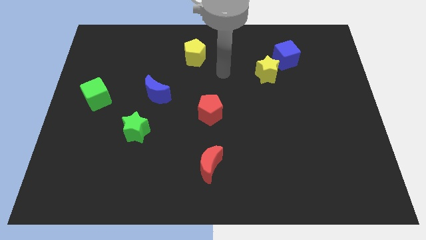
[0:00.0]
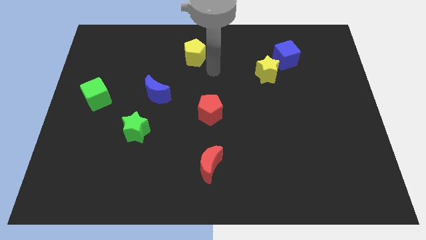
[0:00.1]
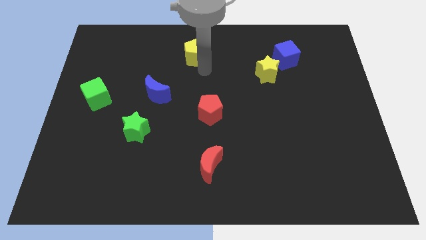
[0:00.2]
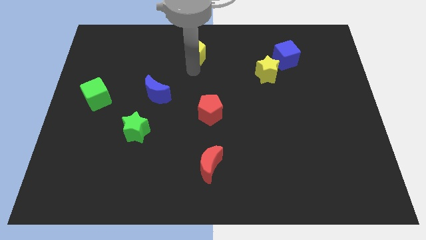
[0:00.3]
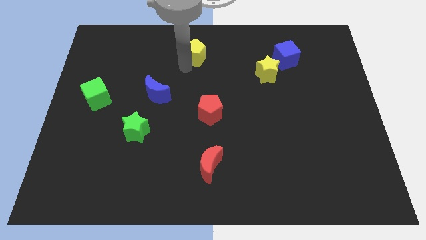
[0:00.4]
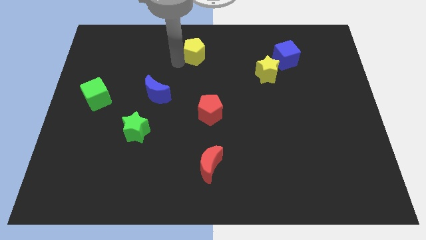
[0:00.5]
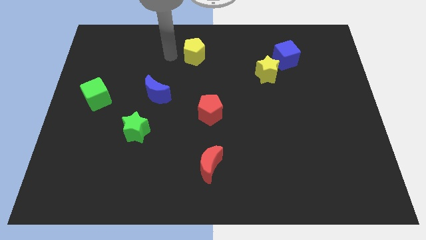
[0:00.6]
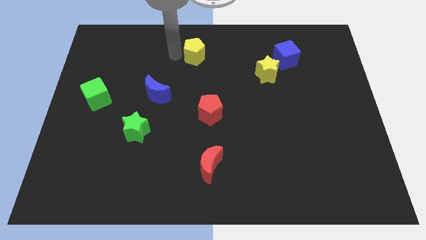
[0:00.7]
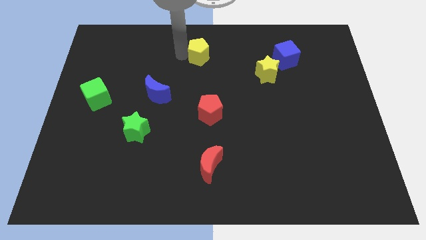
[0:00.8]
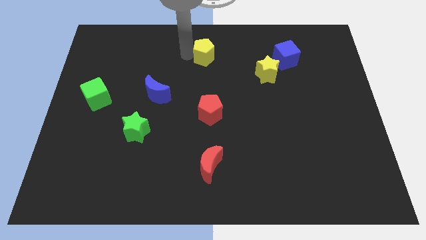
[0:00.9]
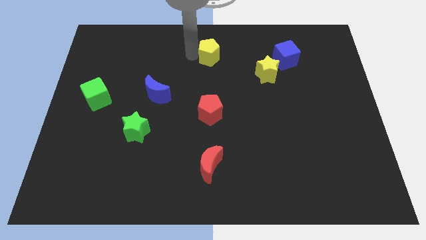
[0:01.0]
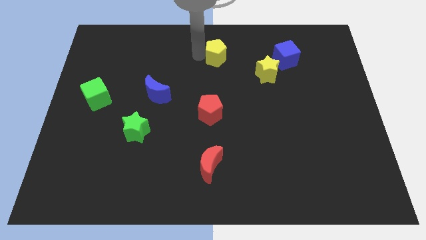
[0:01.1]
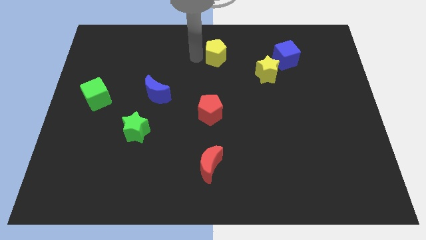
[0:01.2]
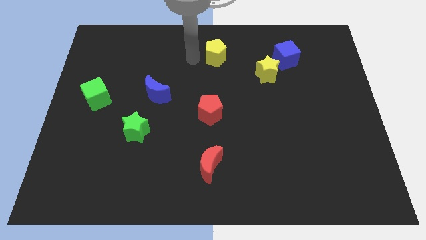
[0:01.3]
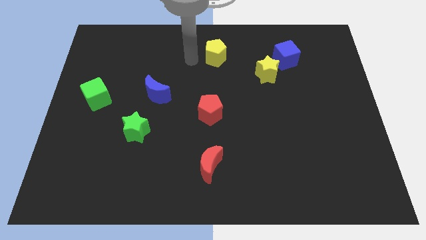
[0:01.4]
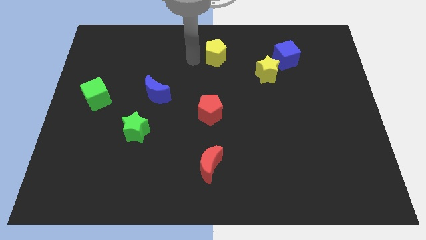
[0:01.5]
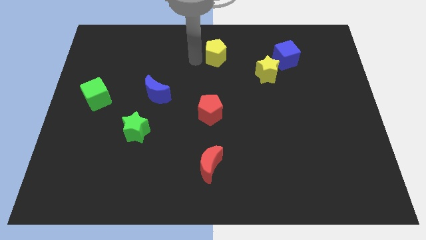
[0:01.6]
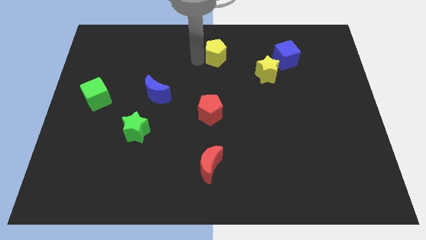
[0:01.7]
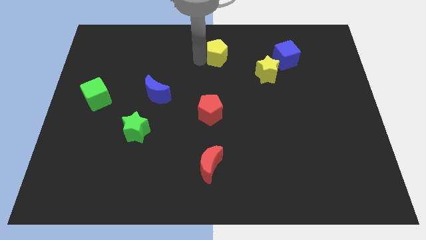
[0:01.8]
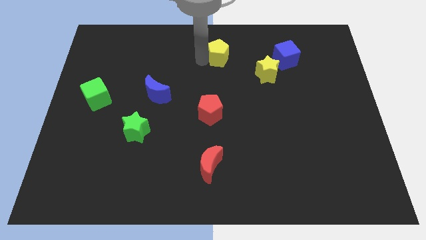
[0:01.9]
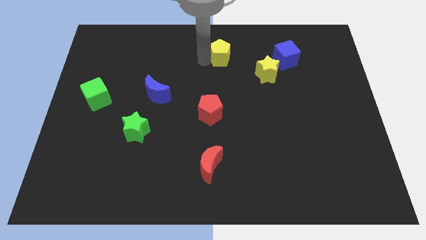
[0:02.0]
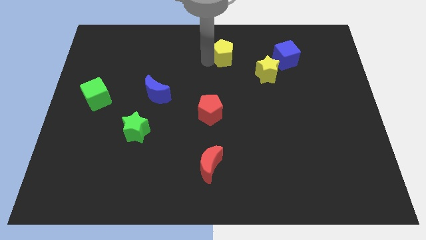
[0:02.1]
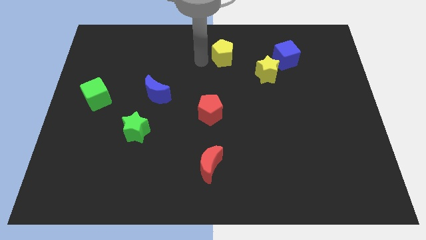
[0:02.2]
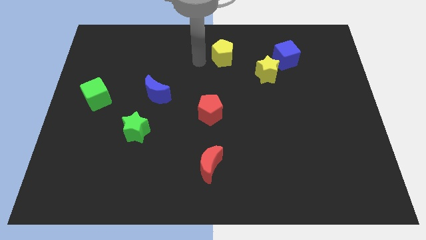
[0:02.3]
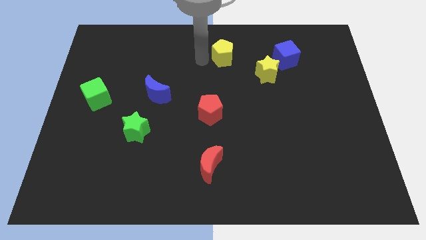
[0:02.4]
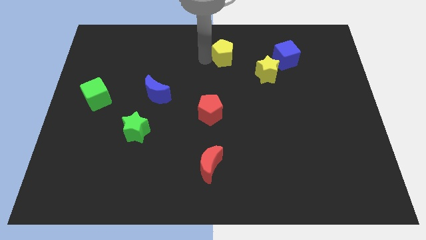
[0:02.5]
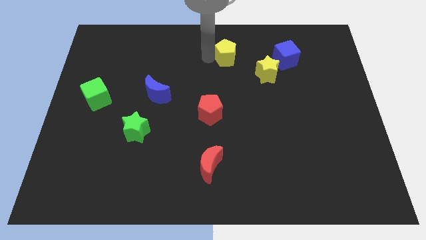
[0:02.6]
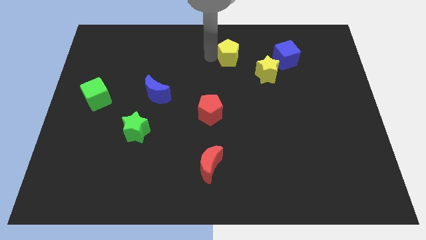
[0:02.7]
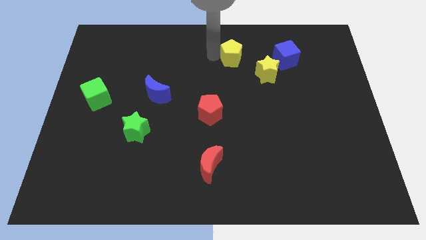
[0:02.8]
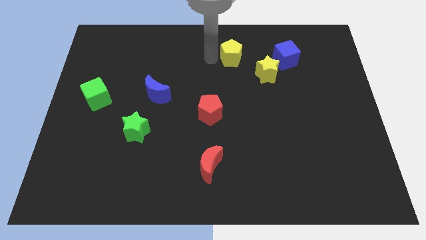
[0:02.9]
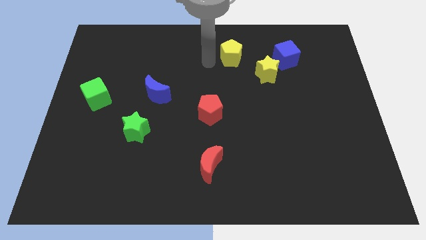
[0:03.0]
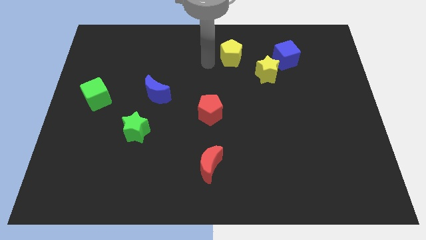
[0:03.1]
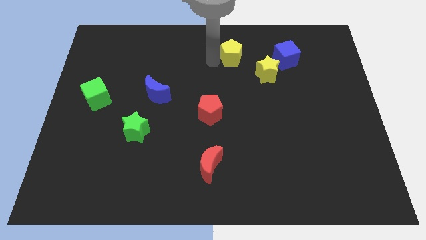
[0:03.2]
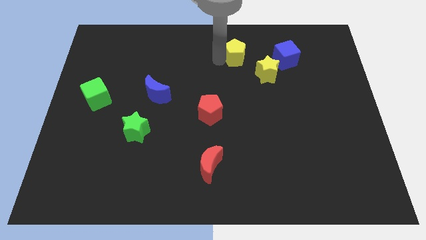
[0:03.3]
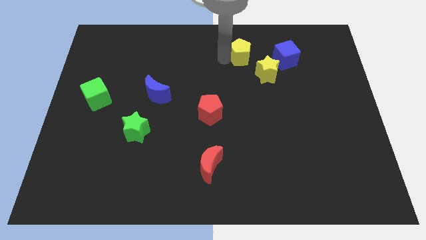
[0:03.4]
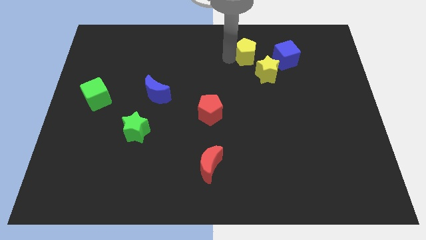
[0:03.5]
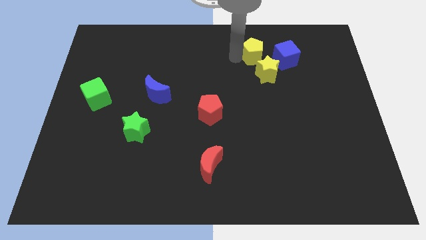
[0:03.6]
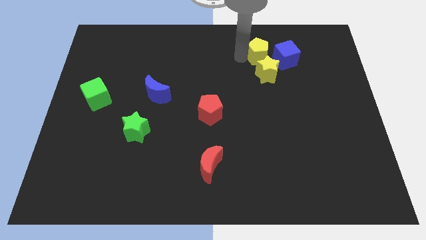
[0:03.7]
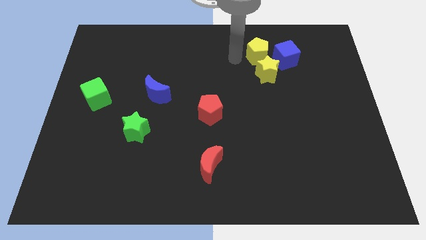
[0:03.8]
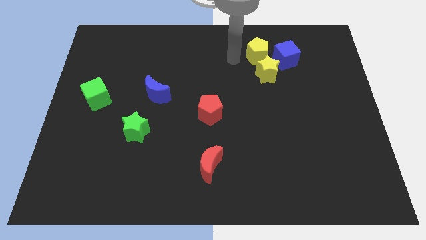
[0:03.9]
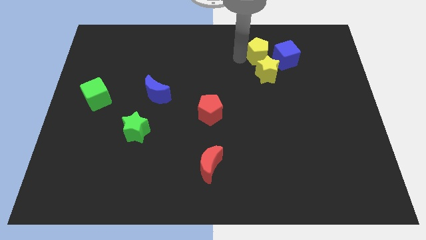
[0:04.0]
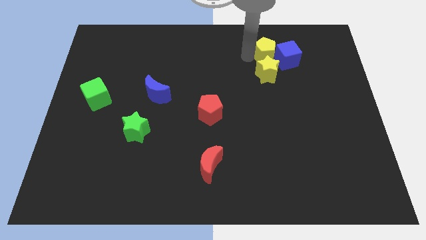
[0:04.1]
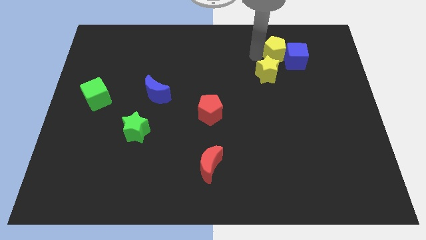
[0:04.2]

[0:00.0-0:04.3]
push the yellow pentagon right

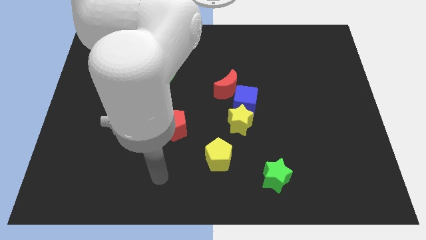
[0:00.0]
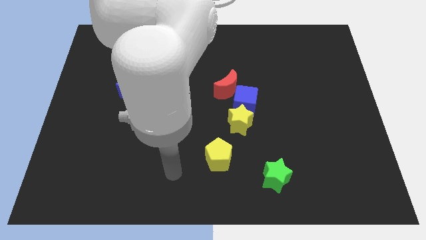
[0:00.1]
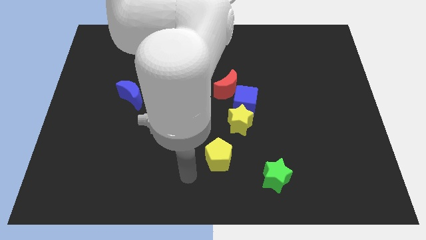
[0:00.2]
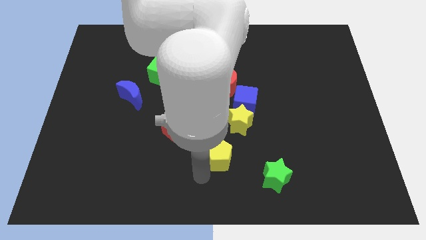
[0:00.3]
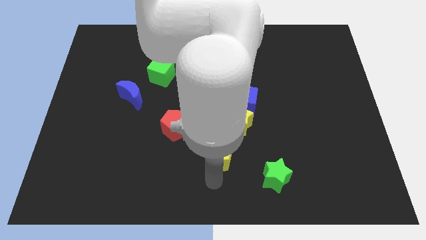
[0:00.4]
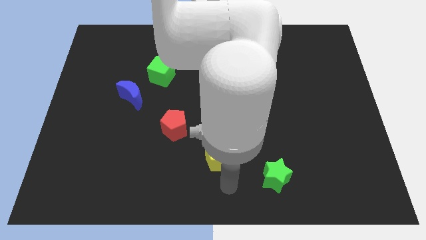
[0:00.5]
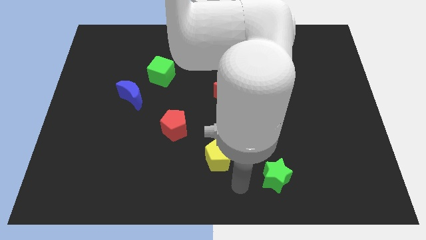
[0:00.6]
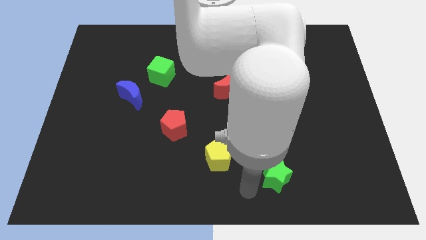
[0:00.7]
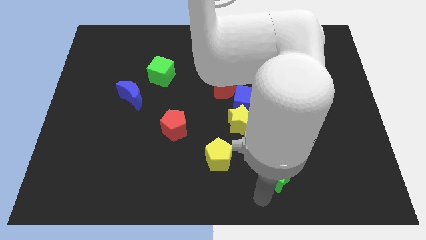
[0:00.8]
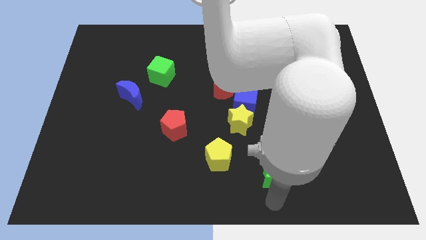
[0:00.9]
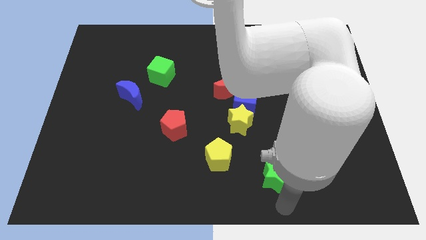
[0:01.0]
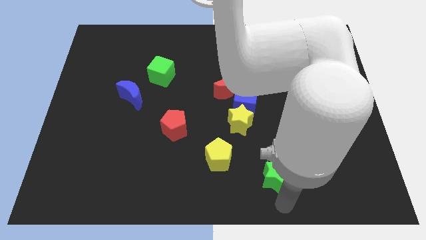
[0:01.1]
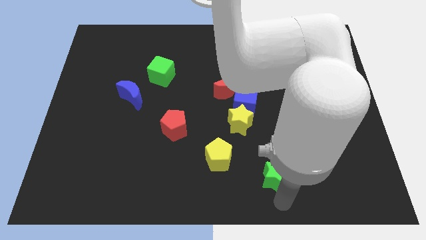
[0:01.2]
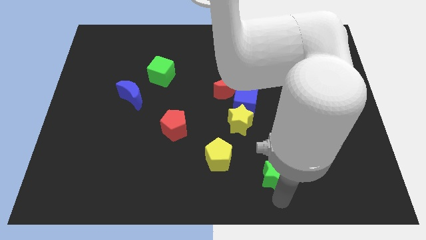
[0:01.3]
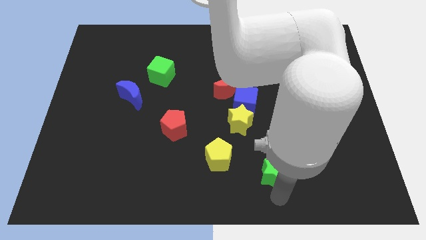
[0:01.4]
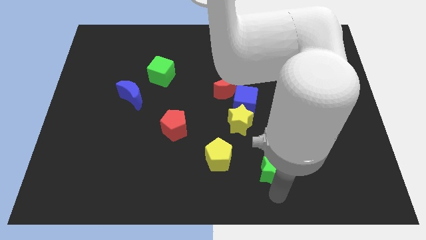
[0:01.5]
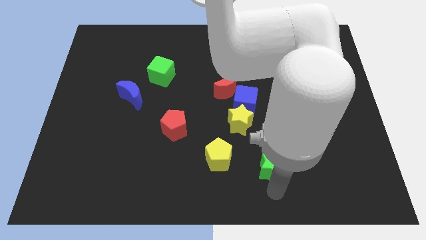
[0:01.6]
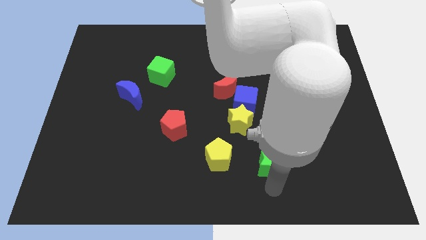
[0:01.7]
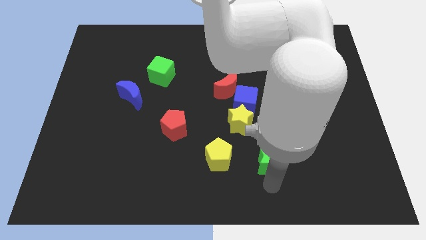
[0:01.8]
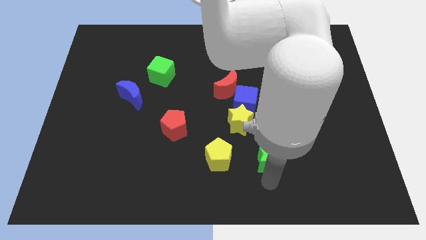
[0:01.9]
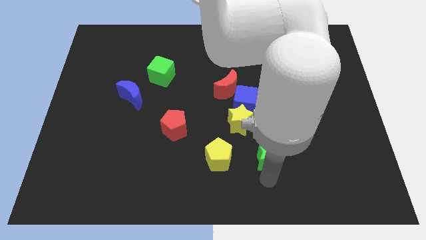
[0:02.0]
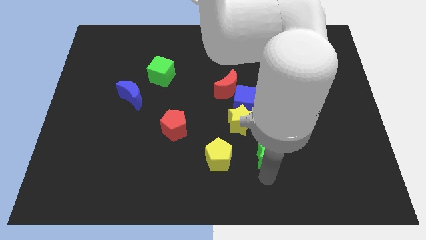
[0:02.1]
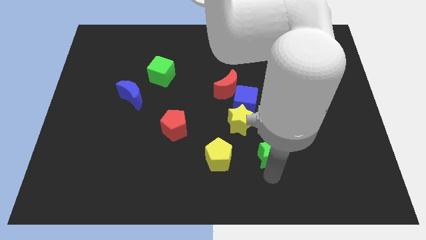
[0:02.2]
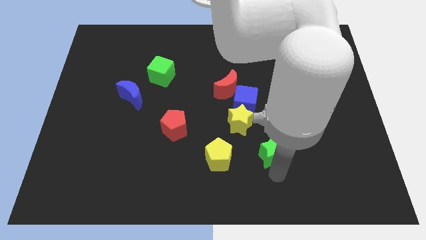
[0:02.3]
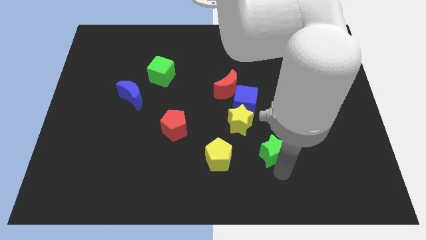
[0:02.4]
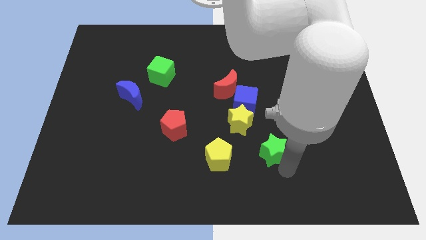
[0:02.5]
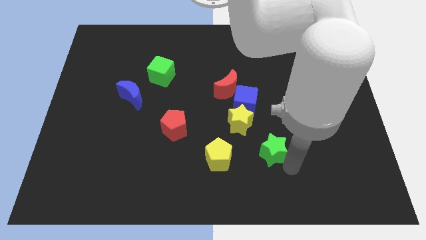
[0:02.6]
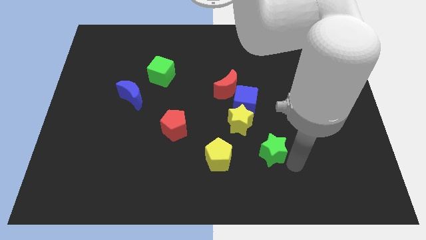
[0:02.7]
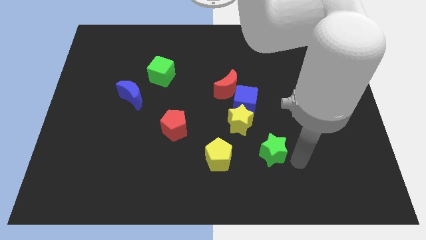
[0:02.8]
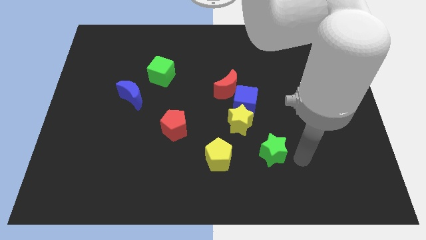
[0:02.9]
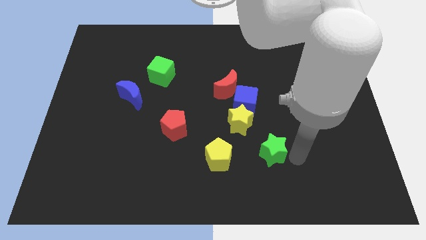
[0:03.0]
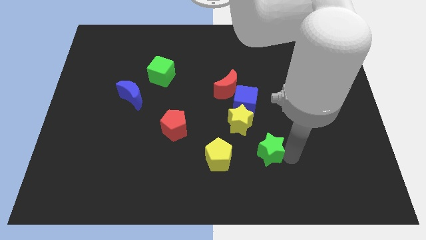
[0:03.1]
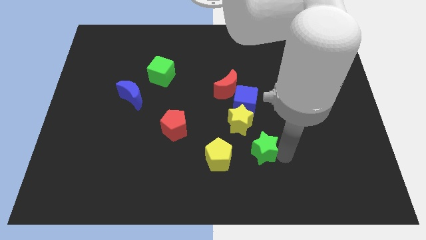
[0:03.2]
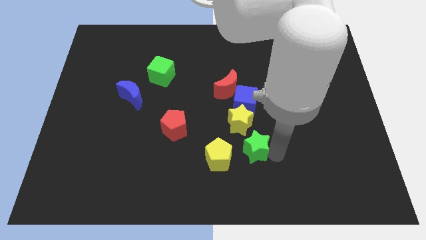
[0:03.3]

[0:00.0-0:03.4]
move the green star upwards and to the left diagonally slightly
